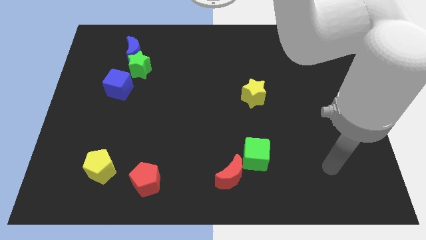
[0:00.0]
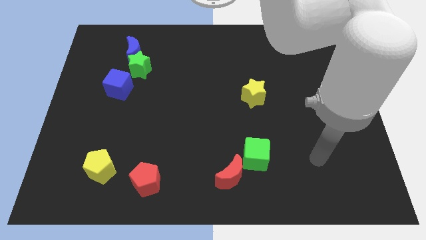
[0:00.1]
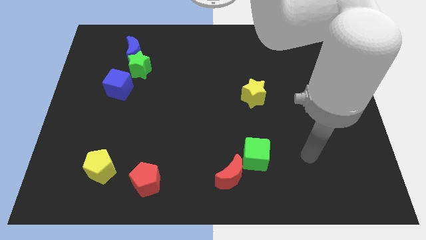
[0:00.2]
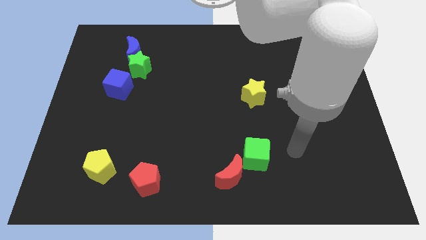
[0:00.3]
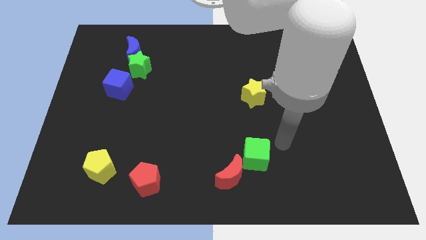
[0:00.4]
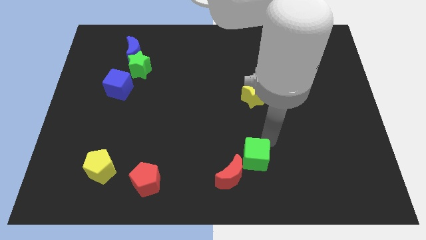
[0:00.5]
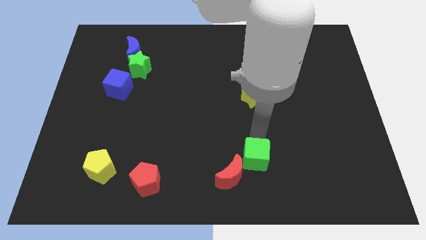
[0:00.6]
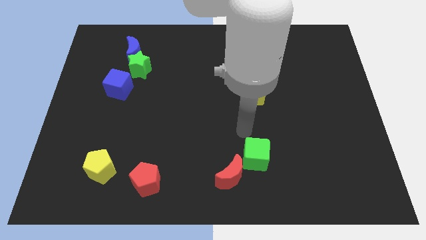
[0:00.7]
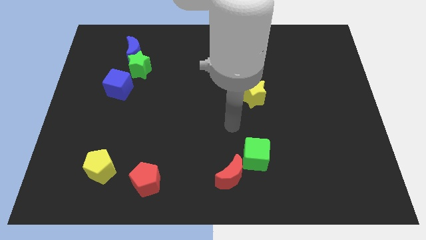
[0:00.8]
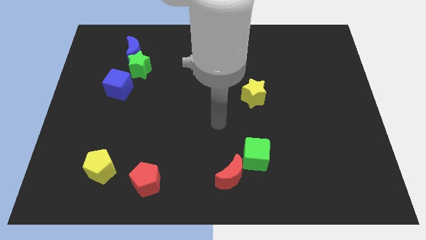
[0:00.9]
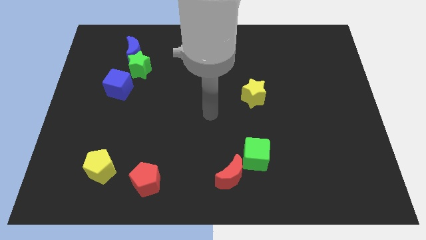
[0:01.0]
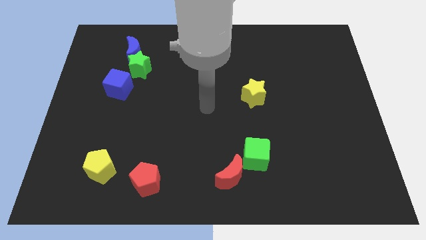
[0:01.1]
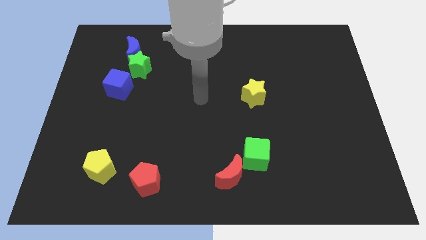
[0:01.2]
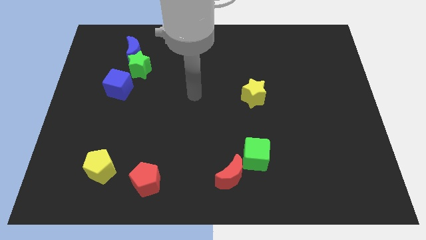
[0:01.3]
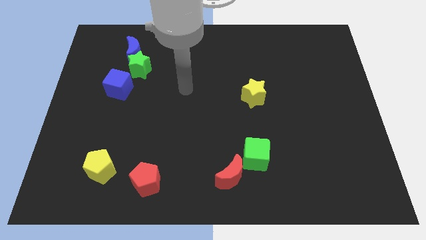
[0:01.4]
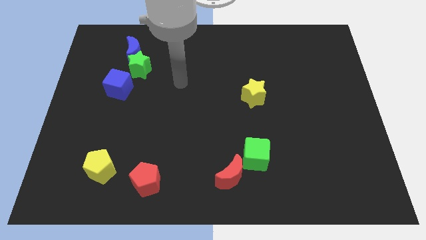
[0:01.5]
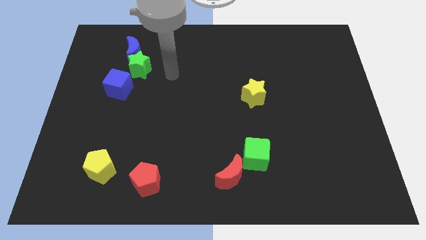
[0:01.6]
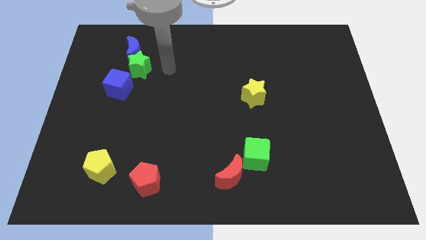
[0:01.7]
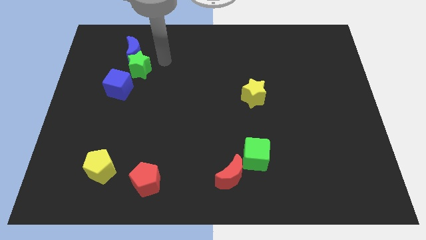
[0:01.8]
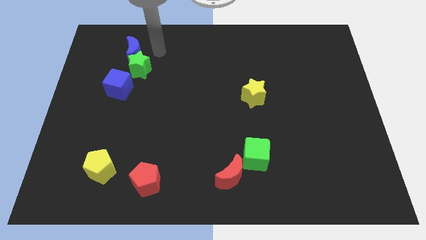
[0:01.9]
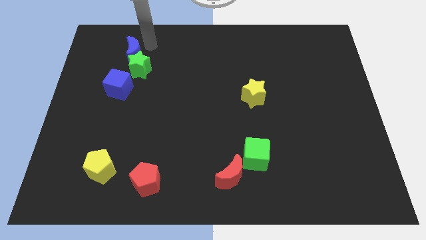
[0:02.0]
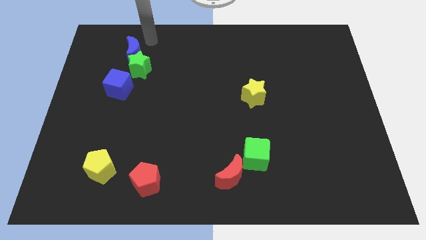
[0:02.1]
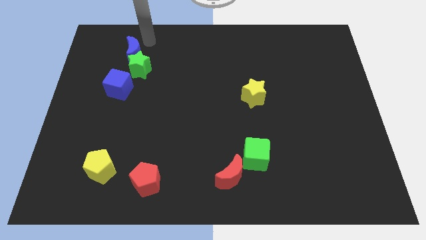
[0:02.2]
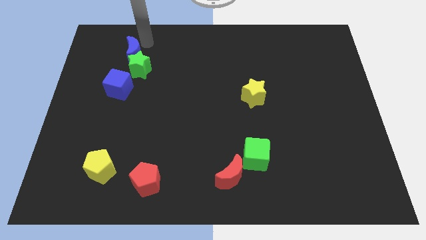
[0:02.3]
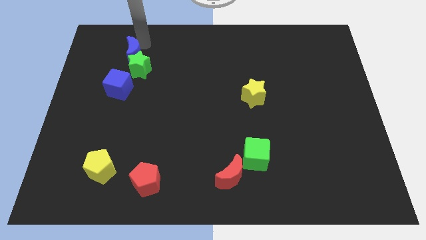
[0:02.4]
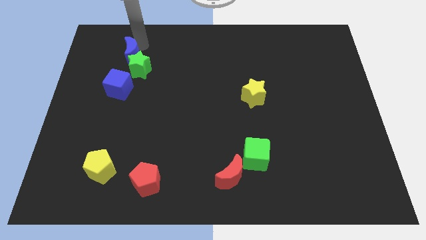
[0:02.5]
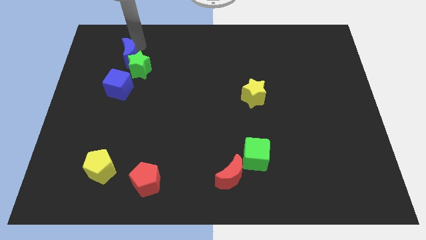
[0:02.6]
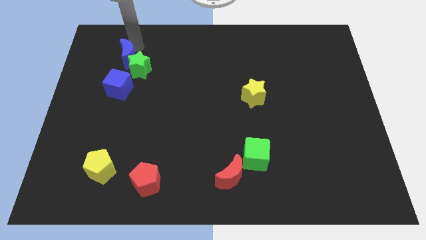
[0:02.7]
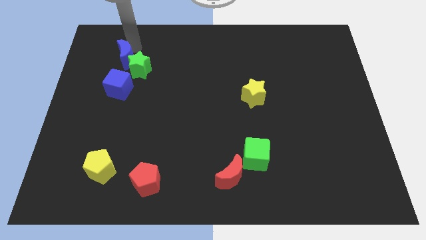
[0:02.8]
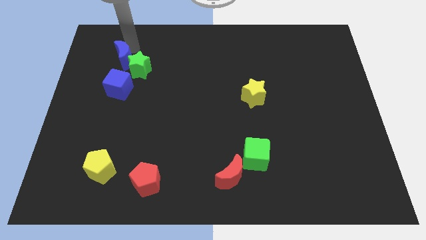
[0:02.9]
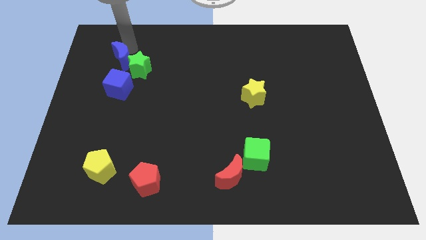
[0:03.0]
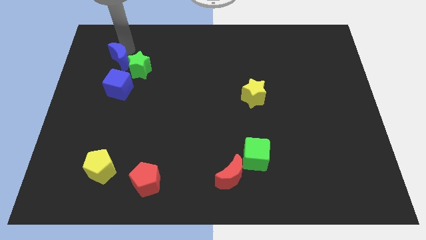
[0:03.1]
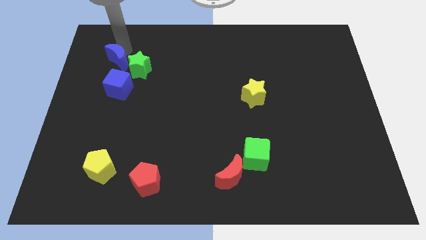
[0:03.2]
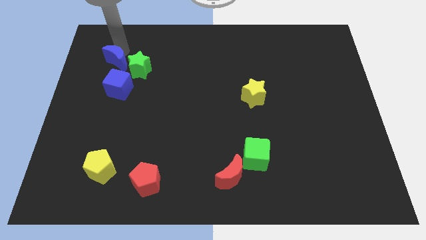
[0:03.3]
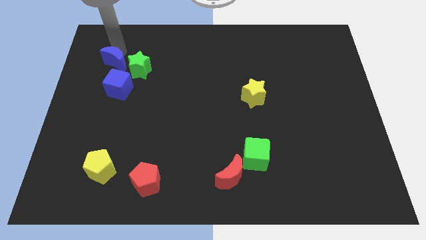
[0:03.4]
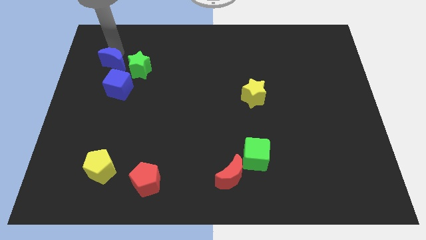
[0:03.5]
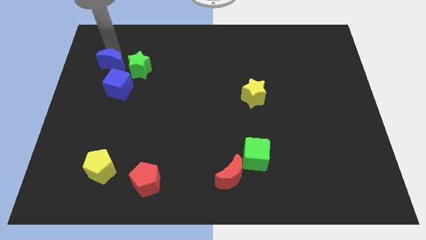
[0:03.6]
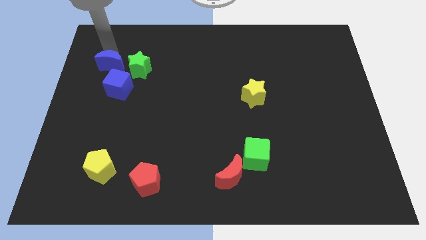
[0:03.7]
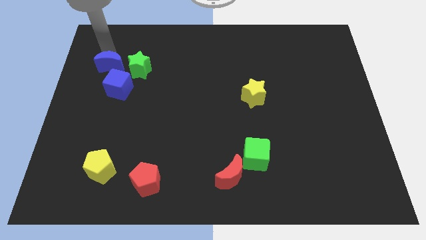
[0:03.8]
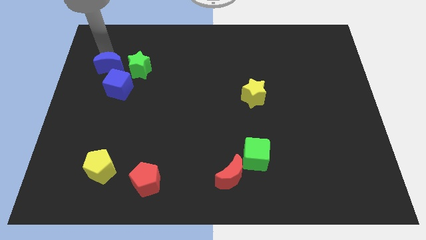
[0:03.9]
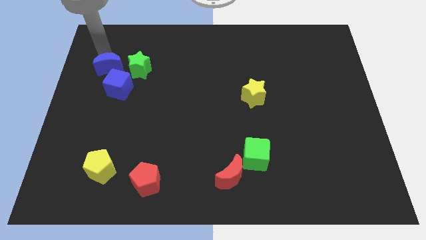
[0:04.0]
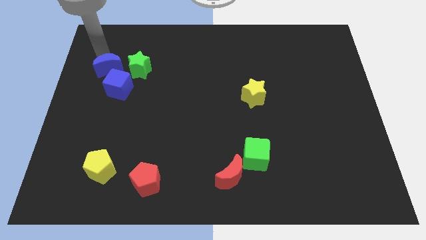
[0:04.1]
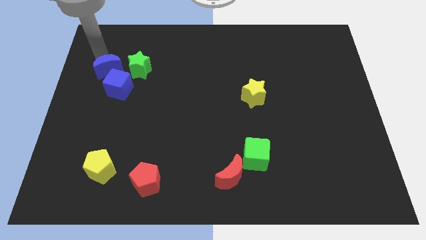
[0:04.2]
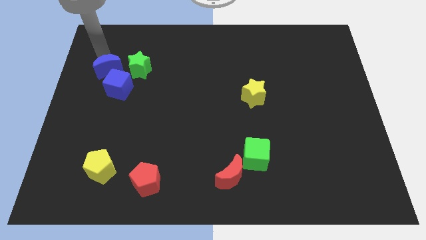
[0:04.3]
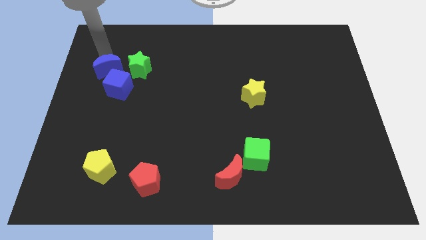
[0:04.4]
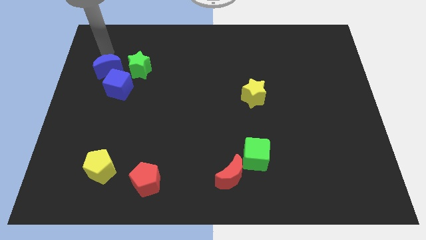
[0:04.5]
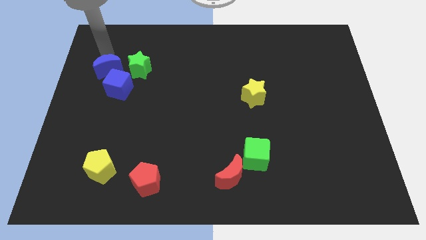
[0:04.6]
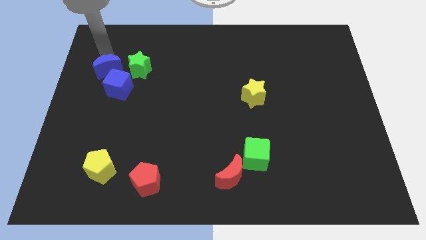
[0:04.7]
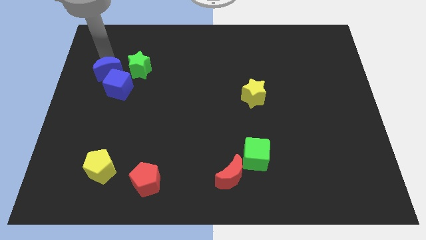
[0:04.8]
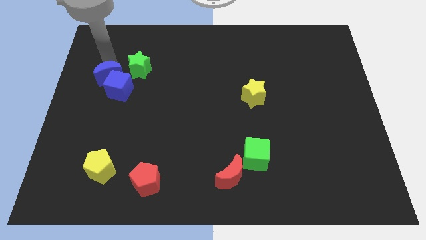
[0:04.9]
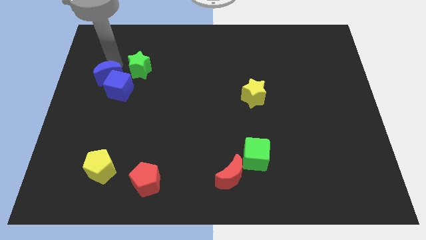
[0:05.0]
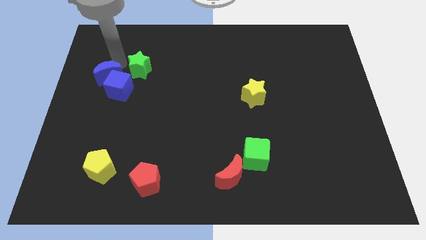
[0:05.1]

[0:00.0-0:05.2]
slide the blue moon down a little

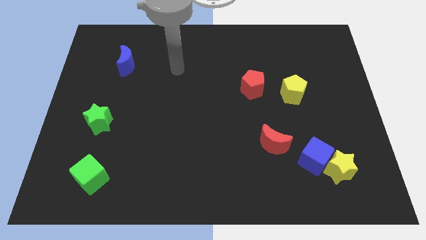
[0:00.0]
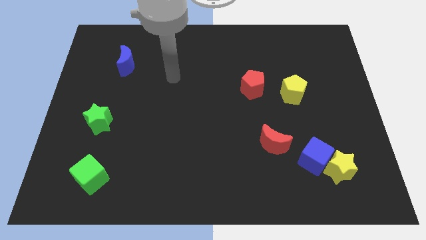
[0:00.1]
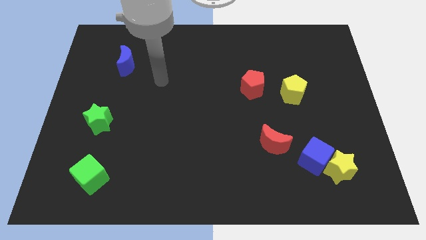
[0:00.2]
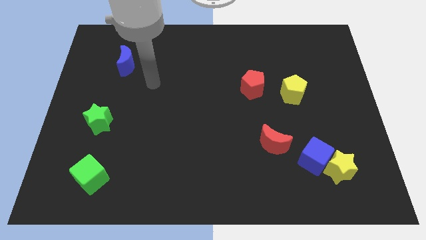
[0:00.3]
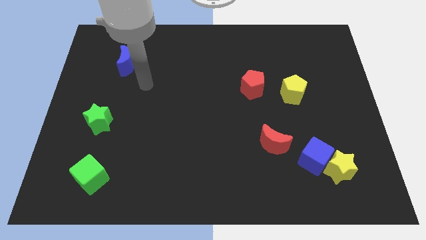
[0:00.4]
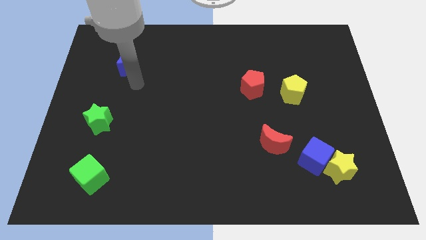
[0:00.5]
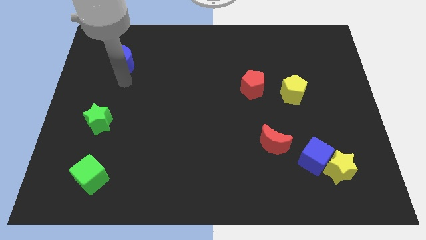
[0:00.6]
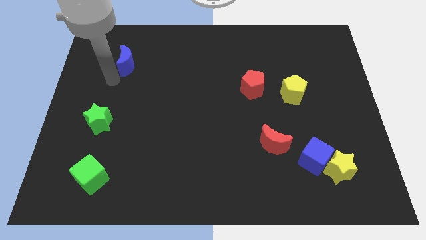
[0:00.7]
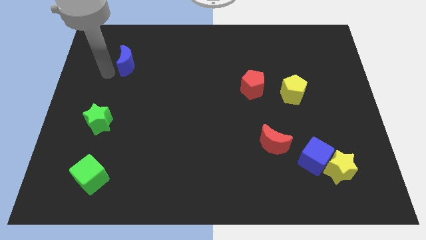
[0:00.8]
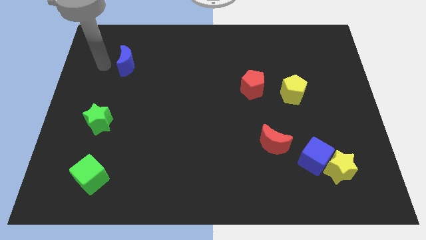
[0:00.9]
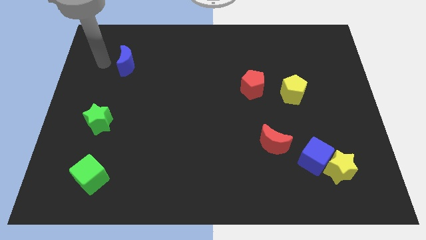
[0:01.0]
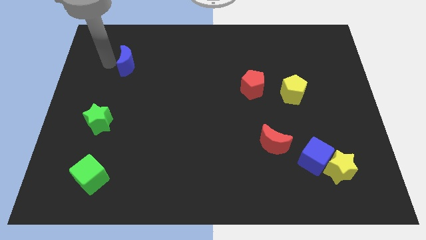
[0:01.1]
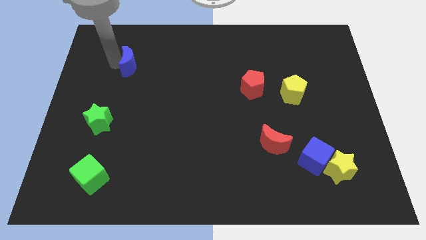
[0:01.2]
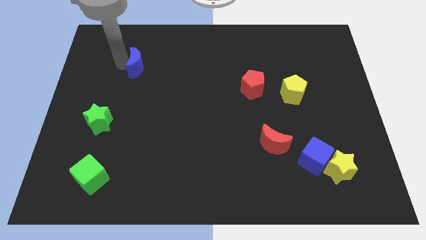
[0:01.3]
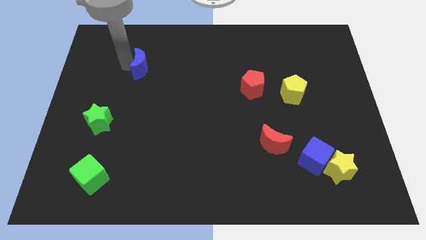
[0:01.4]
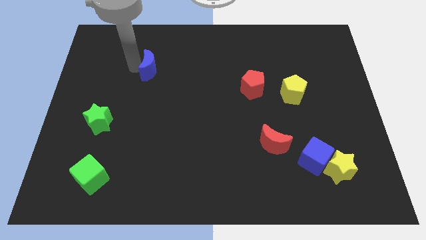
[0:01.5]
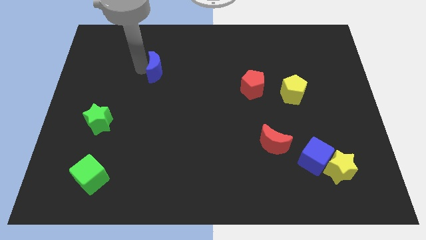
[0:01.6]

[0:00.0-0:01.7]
push the blue moon a little right

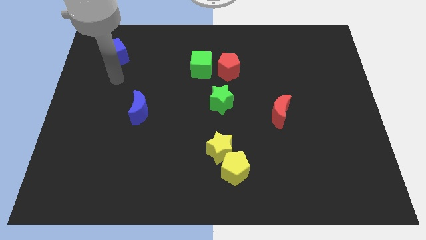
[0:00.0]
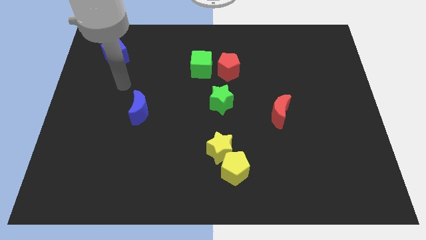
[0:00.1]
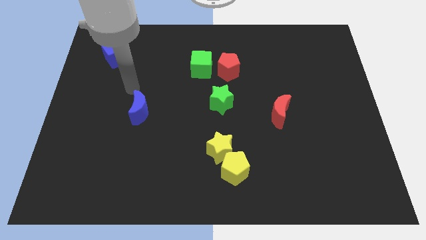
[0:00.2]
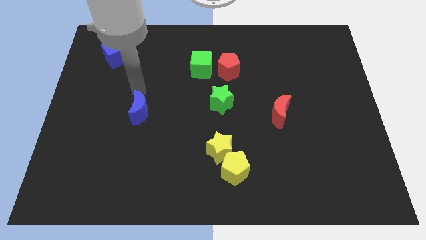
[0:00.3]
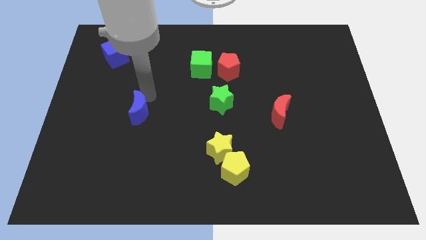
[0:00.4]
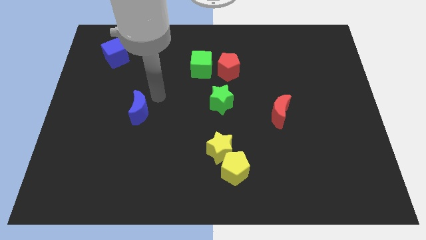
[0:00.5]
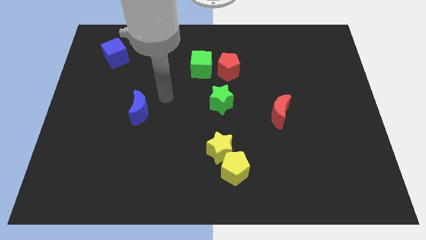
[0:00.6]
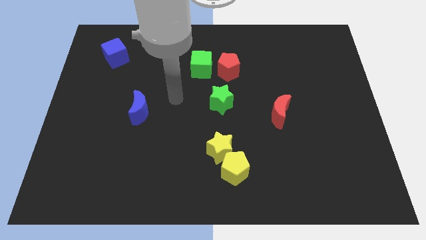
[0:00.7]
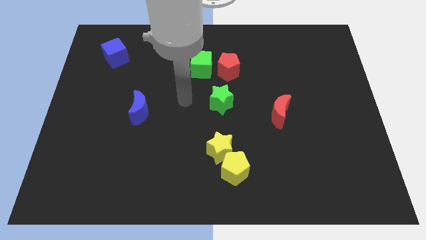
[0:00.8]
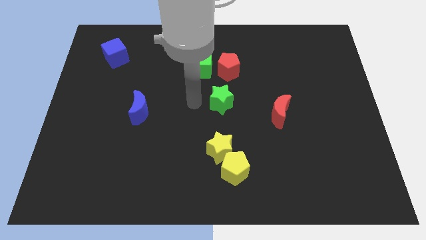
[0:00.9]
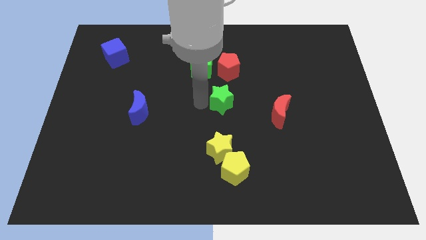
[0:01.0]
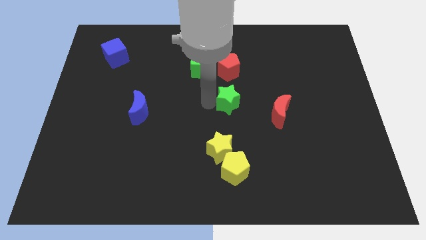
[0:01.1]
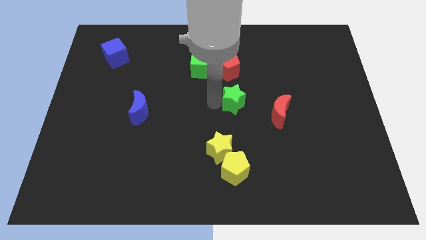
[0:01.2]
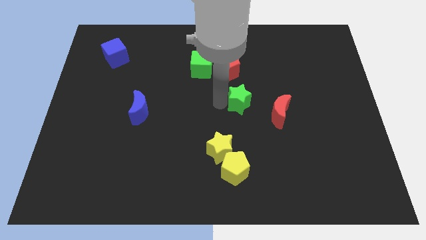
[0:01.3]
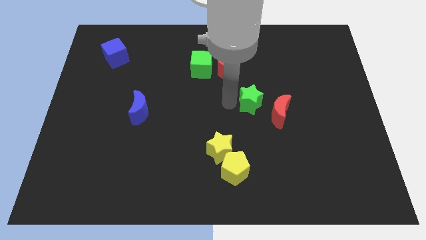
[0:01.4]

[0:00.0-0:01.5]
push the green star to the right slightly

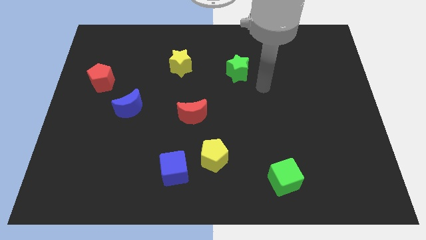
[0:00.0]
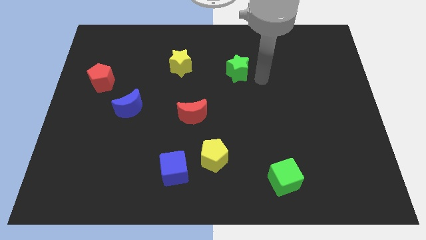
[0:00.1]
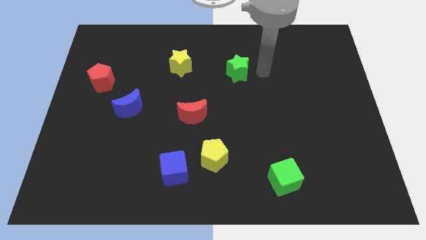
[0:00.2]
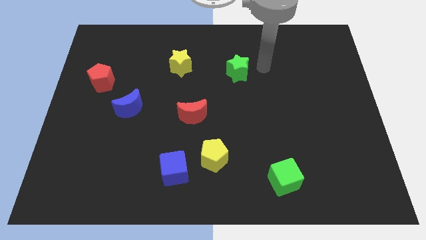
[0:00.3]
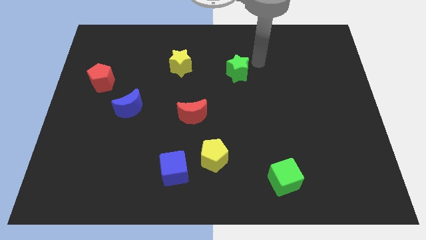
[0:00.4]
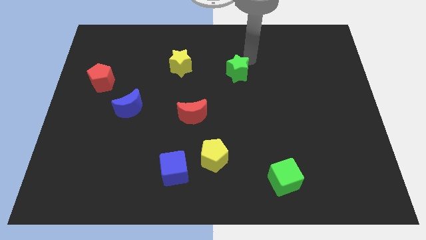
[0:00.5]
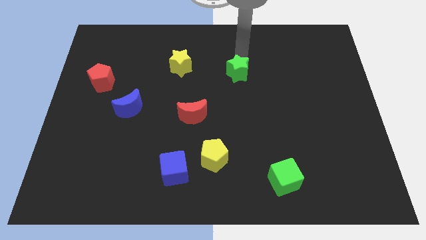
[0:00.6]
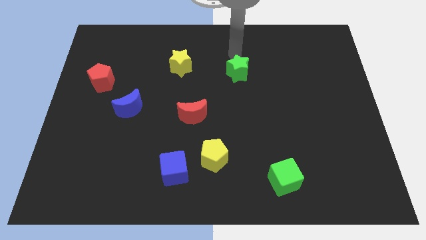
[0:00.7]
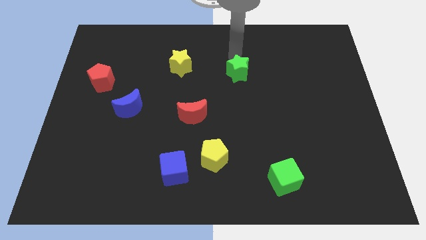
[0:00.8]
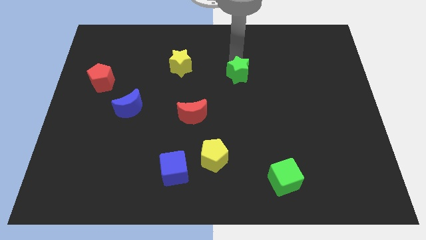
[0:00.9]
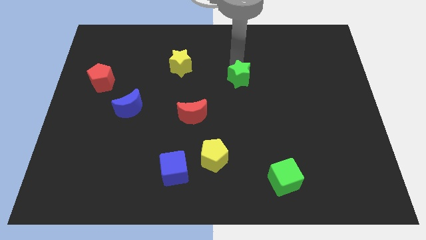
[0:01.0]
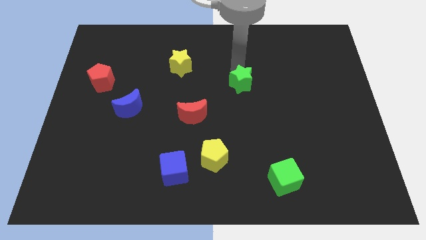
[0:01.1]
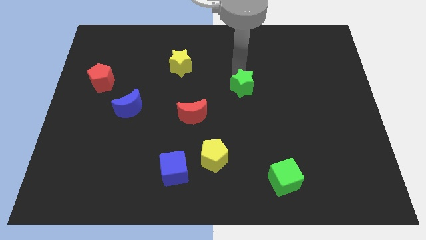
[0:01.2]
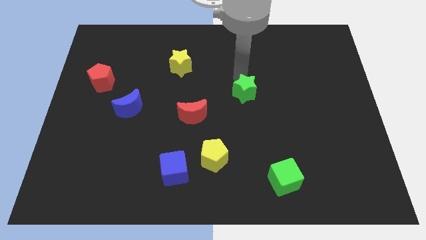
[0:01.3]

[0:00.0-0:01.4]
slightly push the green star downwards
